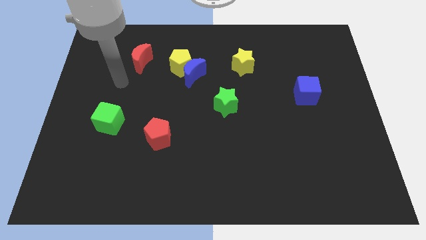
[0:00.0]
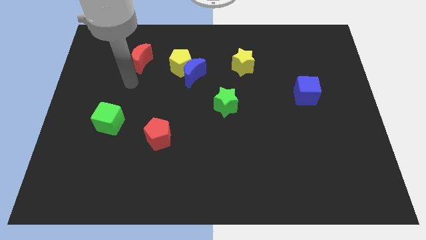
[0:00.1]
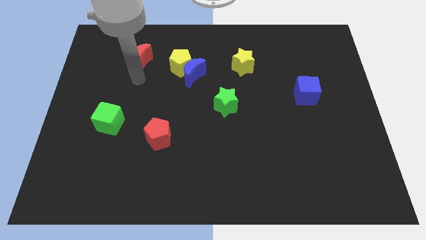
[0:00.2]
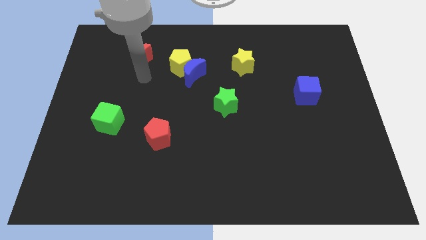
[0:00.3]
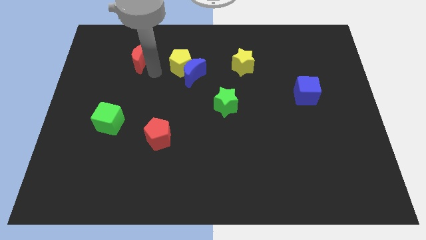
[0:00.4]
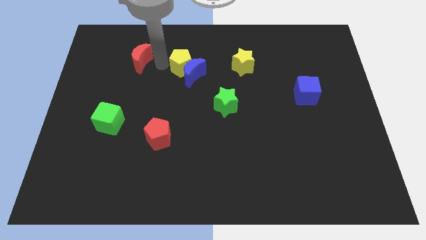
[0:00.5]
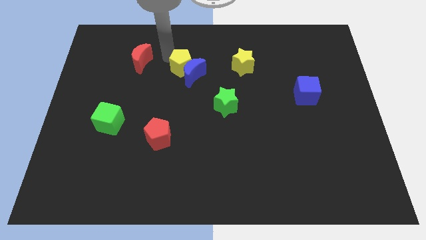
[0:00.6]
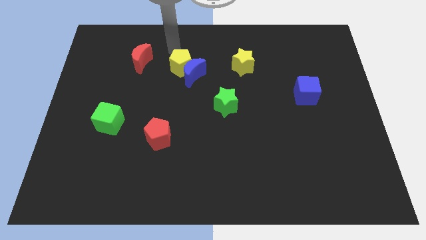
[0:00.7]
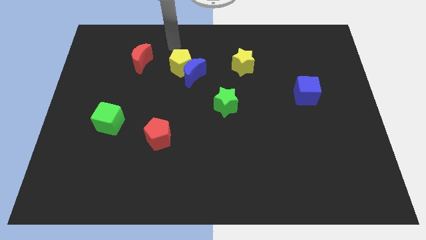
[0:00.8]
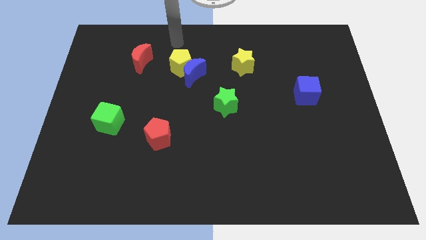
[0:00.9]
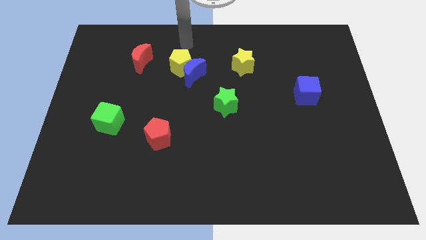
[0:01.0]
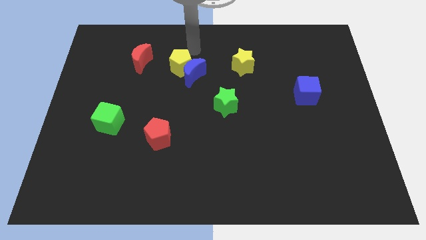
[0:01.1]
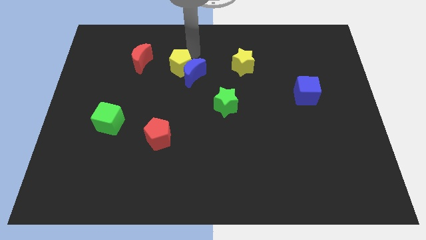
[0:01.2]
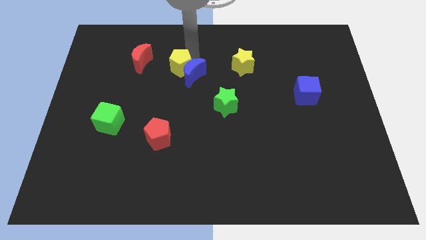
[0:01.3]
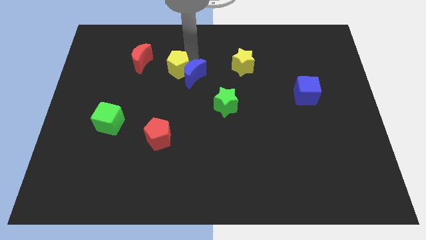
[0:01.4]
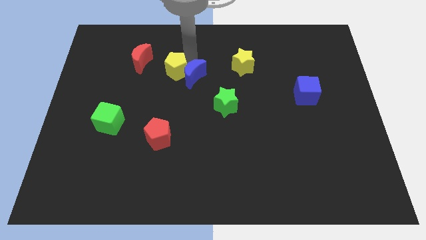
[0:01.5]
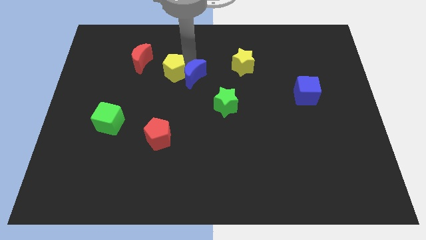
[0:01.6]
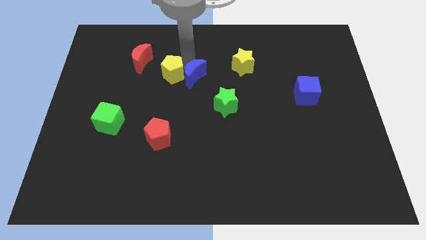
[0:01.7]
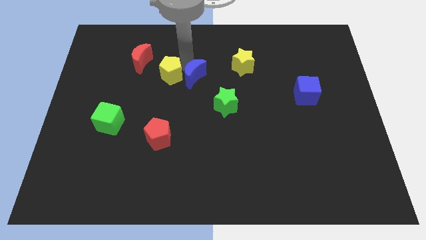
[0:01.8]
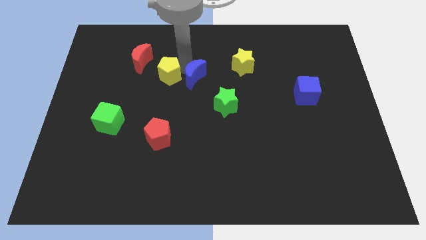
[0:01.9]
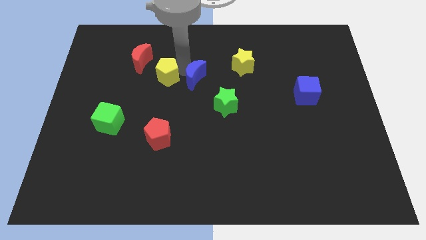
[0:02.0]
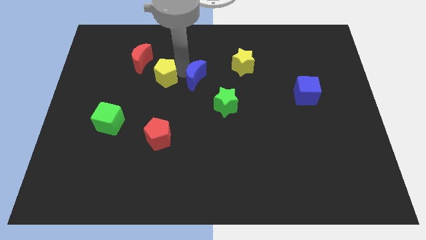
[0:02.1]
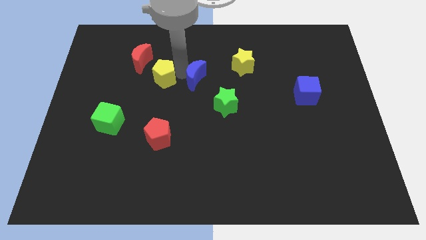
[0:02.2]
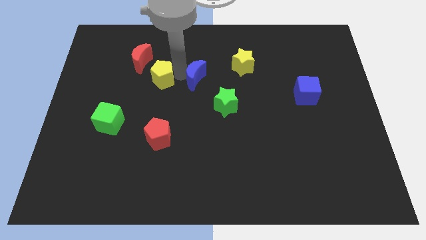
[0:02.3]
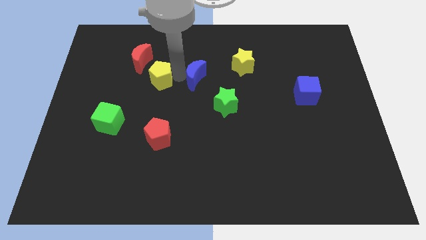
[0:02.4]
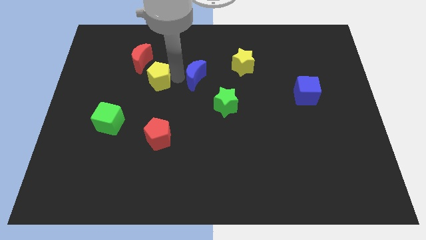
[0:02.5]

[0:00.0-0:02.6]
slightly push the yellow pentagon down and left

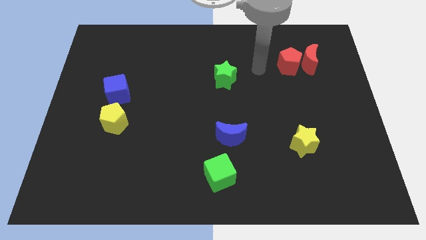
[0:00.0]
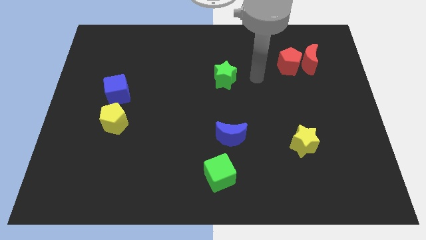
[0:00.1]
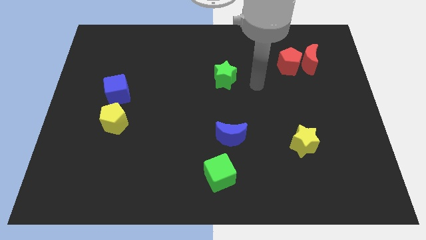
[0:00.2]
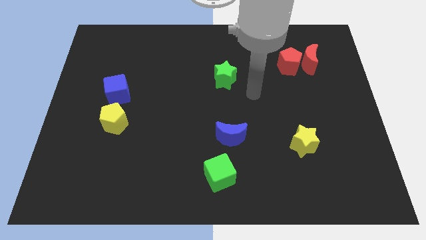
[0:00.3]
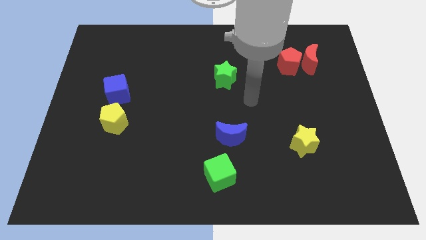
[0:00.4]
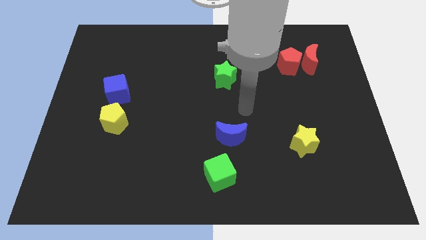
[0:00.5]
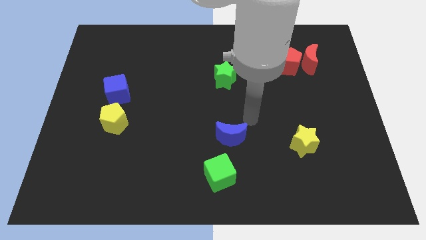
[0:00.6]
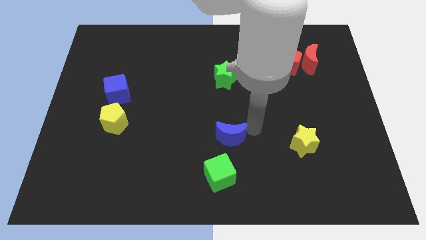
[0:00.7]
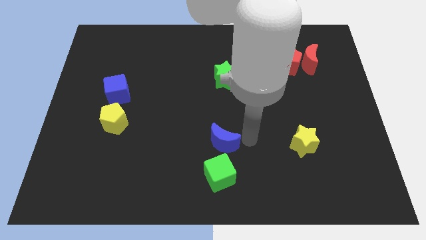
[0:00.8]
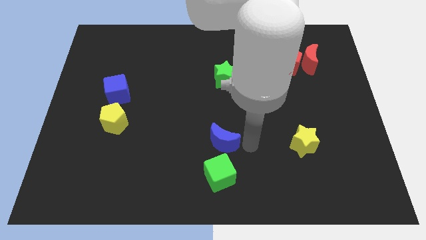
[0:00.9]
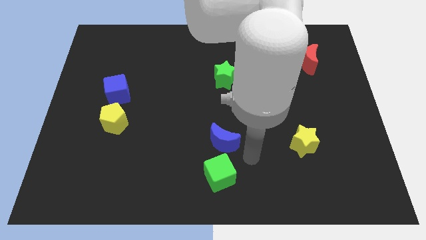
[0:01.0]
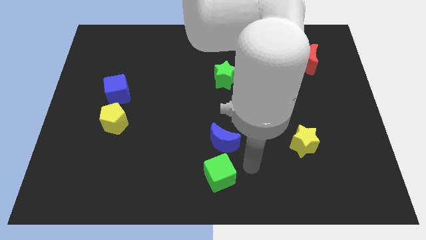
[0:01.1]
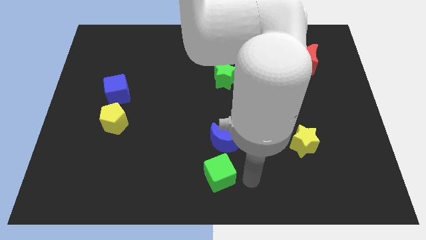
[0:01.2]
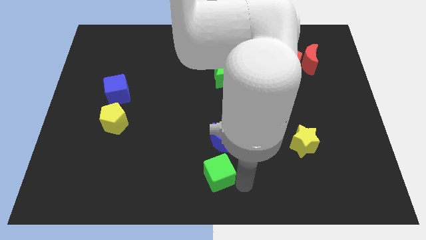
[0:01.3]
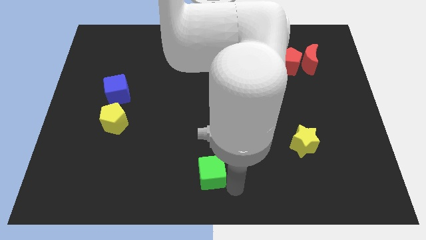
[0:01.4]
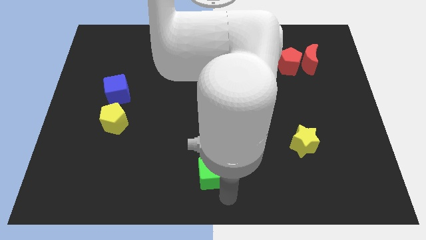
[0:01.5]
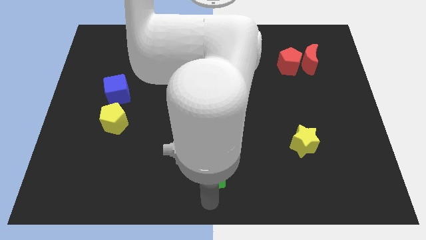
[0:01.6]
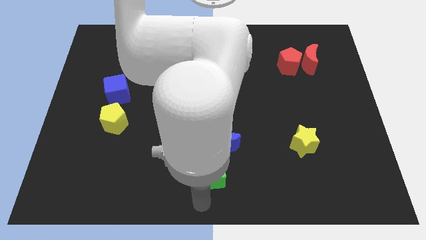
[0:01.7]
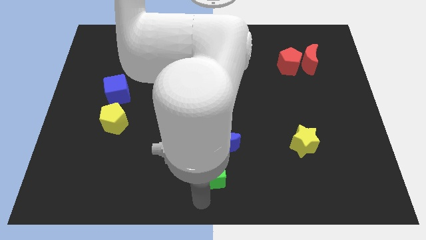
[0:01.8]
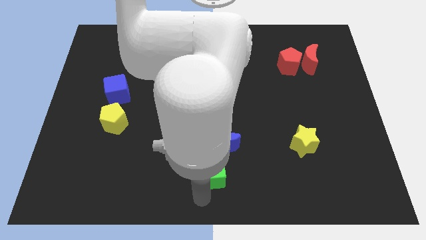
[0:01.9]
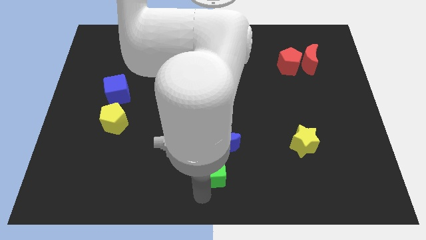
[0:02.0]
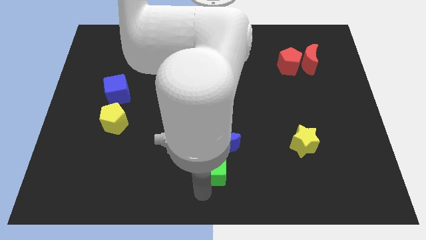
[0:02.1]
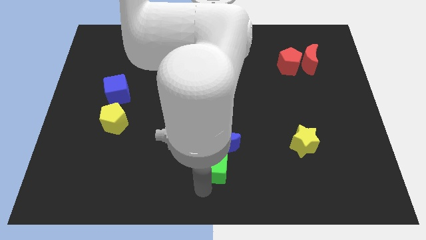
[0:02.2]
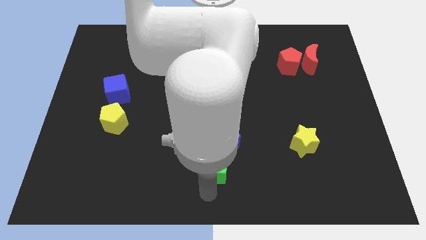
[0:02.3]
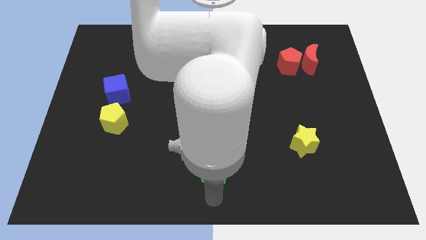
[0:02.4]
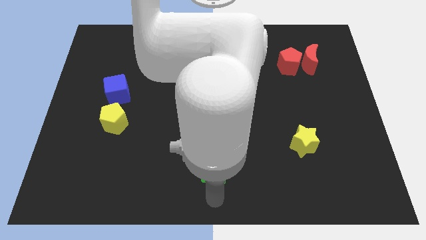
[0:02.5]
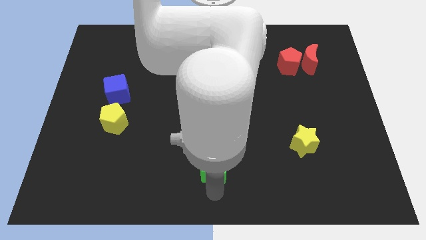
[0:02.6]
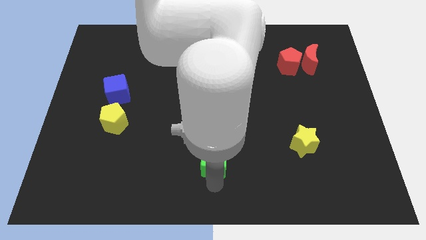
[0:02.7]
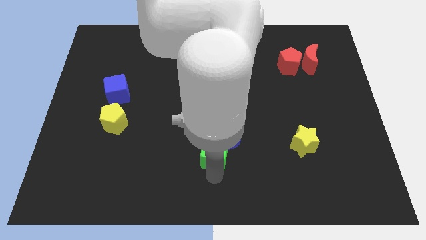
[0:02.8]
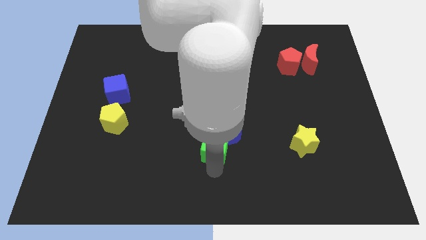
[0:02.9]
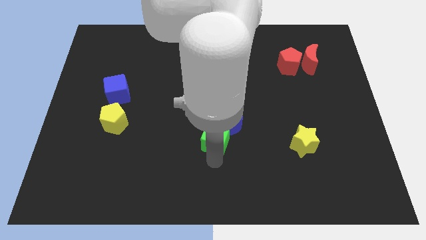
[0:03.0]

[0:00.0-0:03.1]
move the green cube upwards slightly

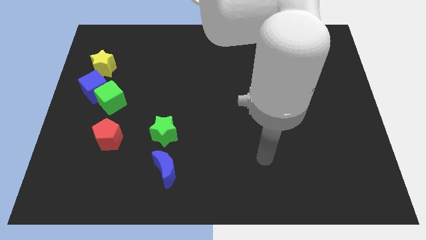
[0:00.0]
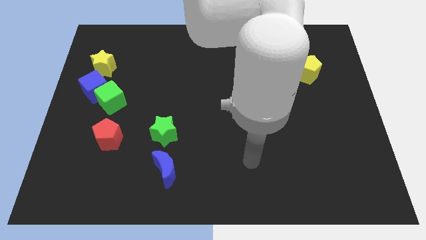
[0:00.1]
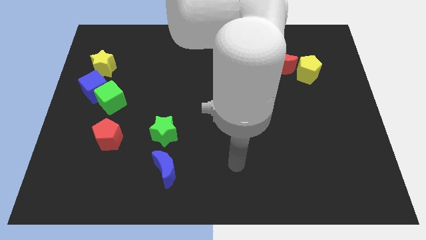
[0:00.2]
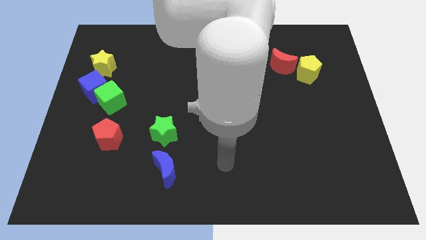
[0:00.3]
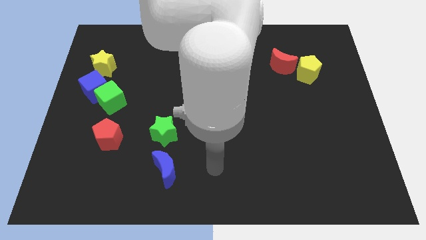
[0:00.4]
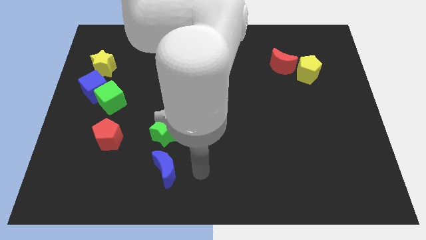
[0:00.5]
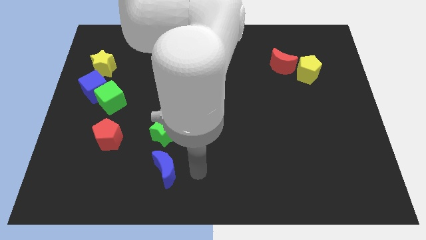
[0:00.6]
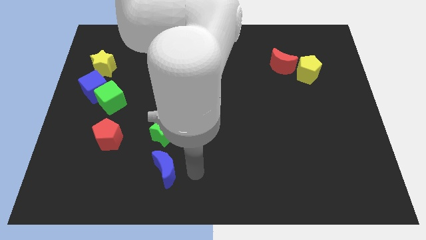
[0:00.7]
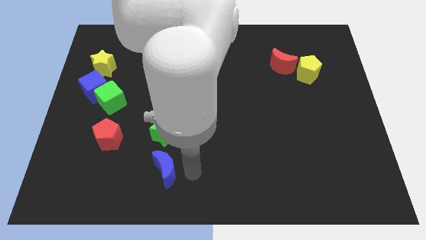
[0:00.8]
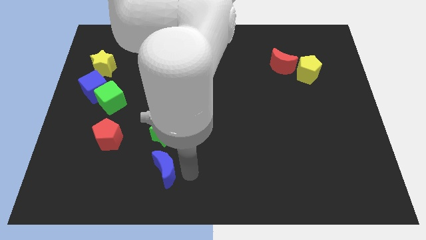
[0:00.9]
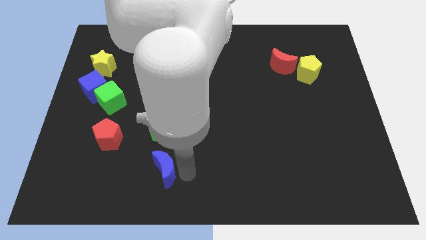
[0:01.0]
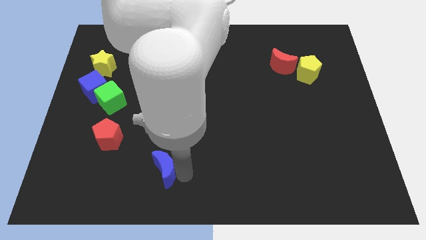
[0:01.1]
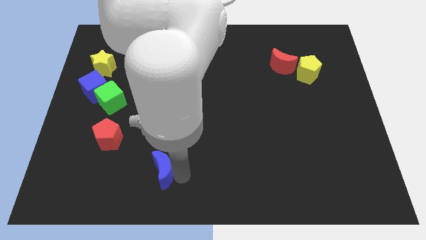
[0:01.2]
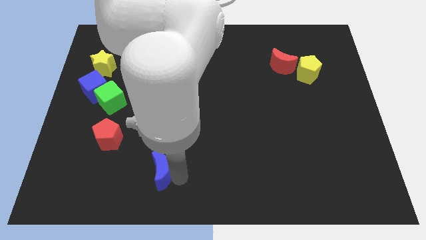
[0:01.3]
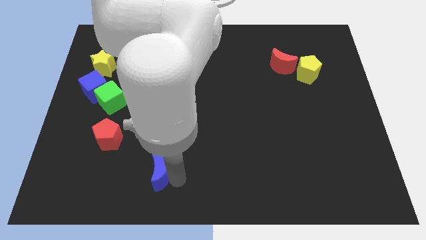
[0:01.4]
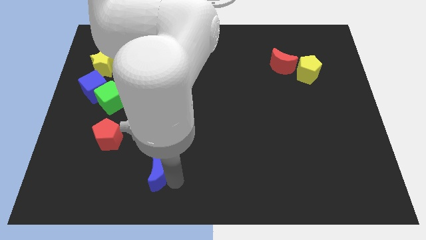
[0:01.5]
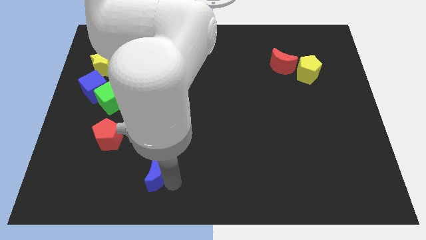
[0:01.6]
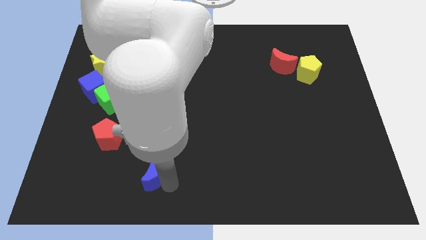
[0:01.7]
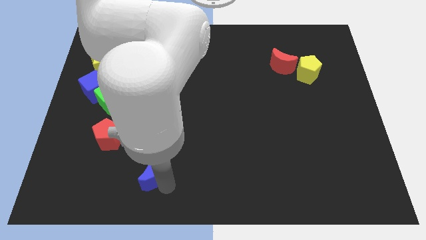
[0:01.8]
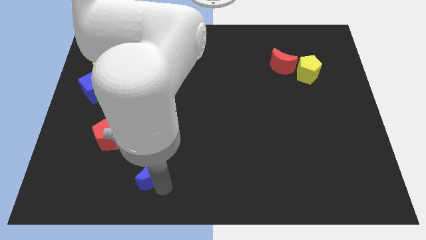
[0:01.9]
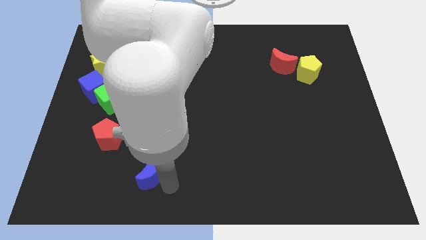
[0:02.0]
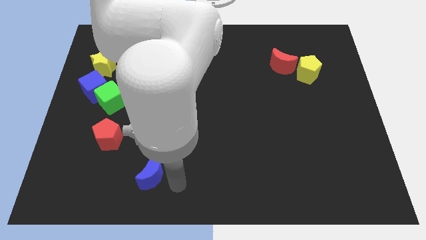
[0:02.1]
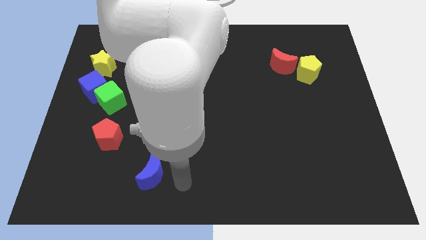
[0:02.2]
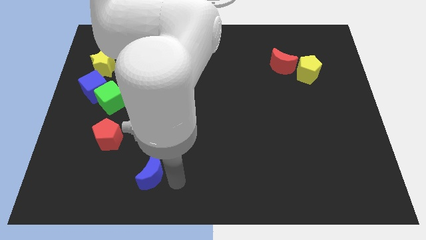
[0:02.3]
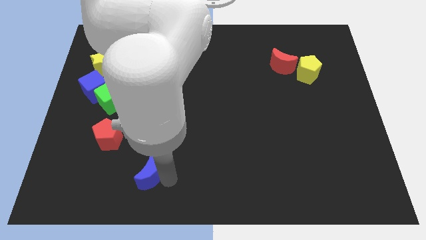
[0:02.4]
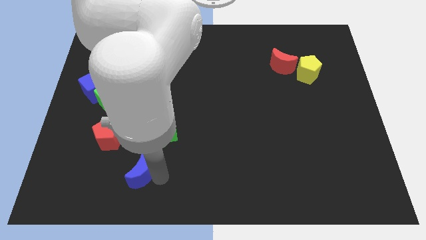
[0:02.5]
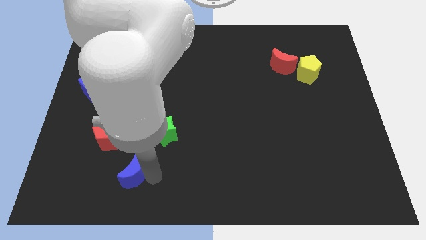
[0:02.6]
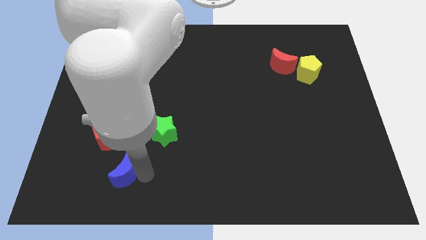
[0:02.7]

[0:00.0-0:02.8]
slide the blue moon a little left
